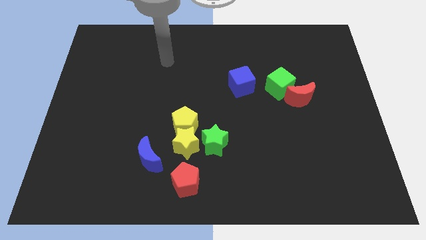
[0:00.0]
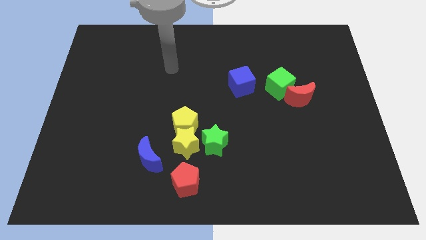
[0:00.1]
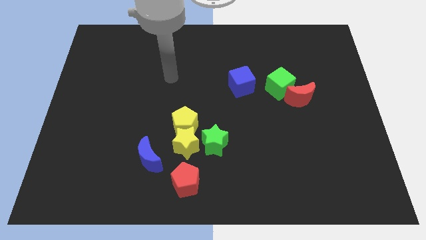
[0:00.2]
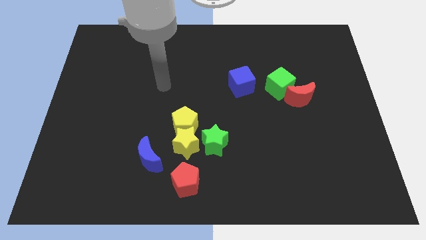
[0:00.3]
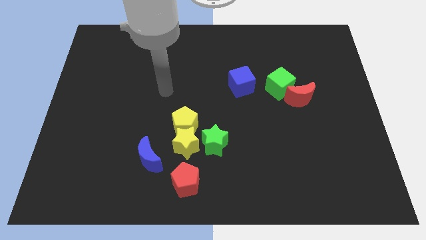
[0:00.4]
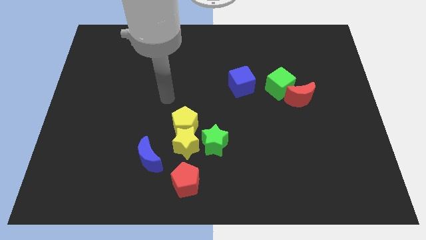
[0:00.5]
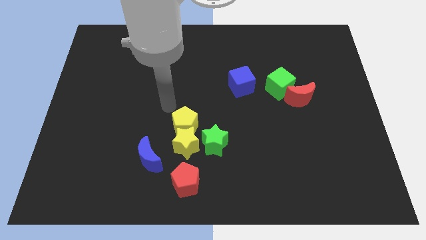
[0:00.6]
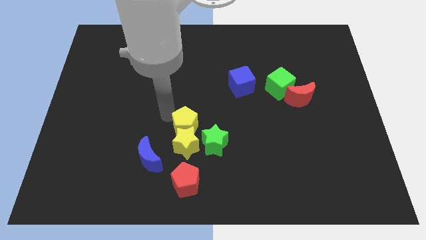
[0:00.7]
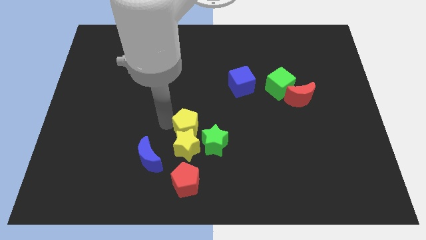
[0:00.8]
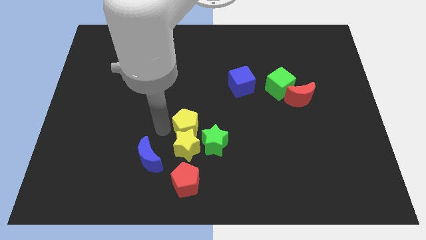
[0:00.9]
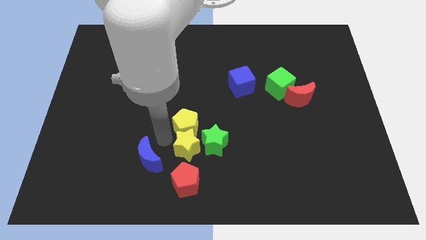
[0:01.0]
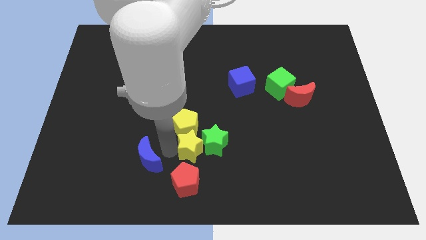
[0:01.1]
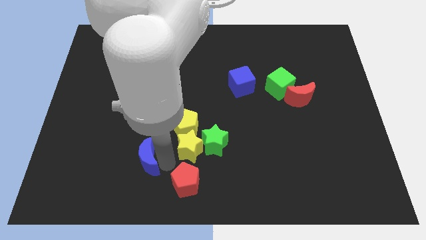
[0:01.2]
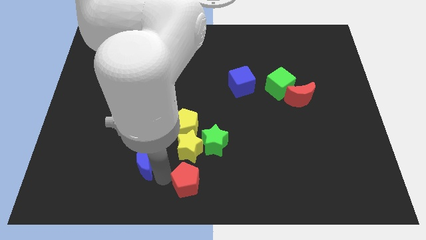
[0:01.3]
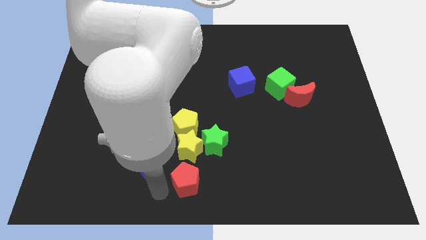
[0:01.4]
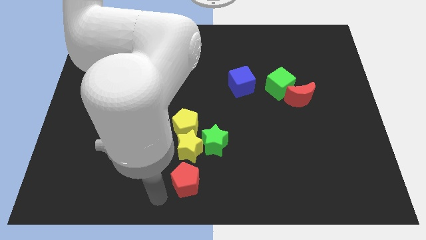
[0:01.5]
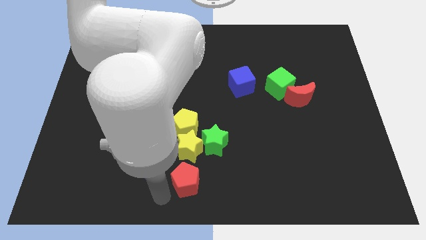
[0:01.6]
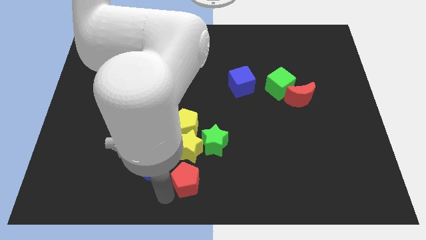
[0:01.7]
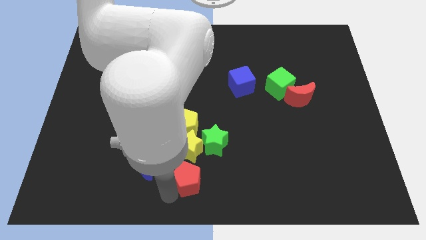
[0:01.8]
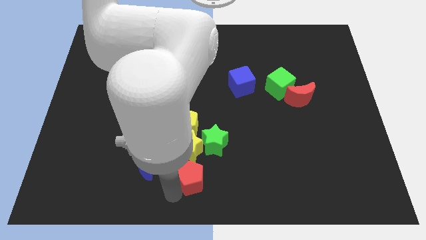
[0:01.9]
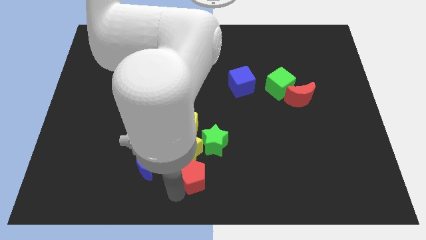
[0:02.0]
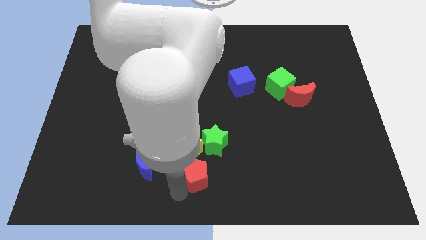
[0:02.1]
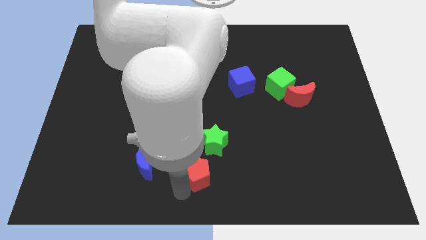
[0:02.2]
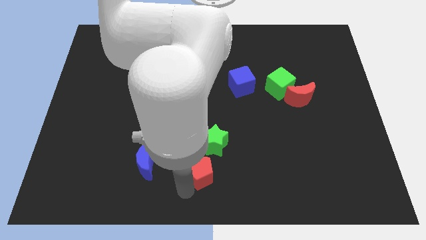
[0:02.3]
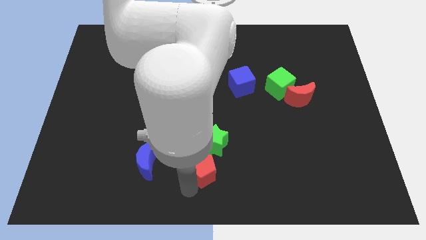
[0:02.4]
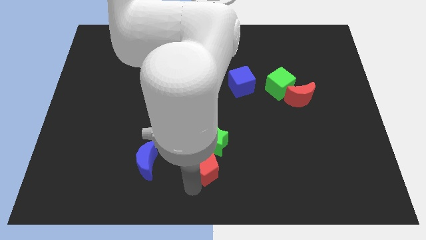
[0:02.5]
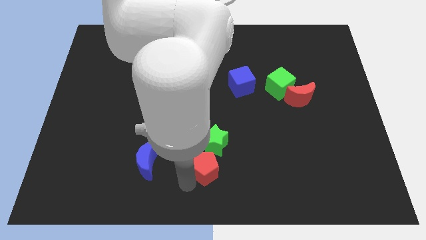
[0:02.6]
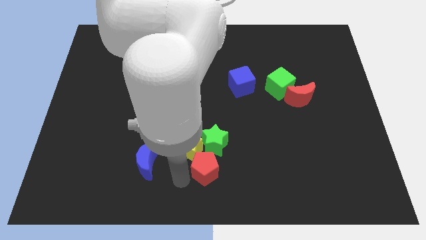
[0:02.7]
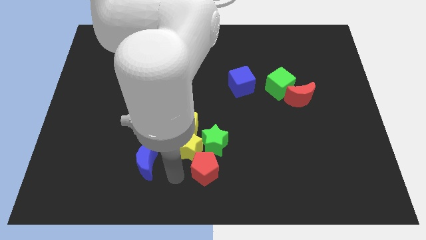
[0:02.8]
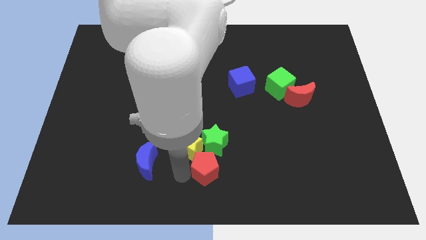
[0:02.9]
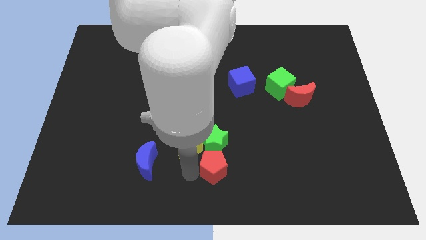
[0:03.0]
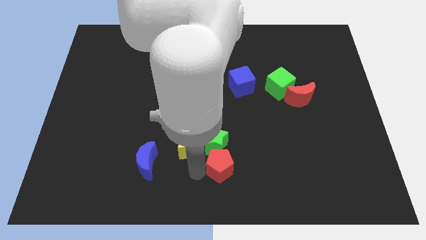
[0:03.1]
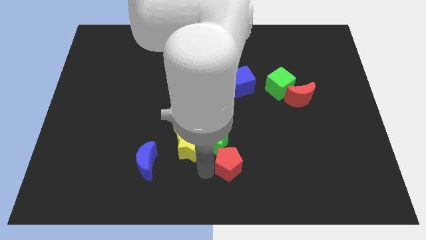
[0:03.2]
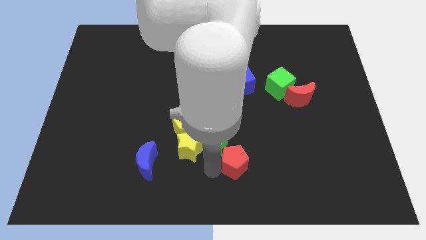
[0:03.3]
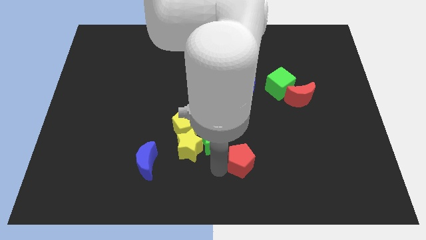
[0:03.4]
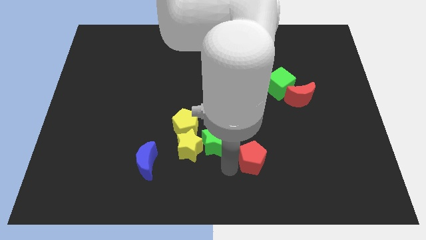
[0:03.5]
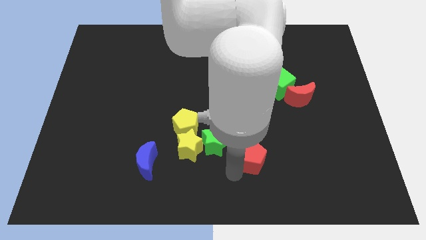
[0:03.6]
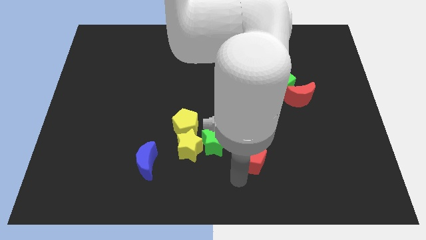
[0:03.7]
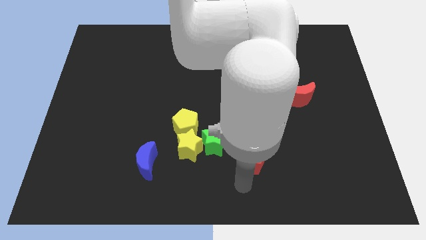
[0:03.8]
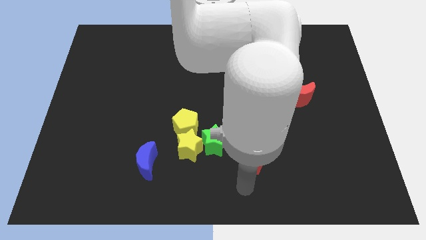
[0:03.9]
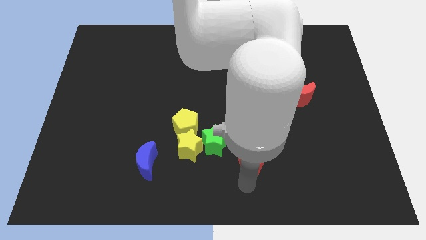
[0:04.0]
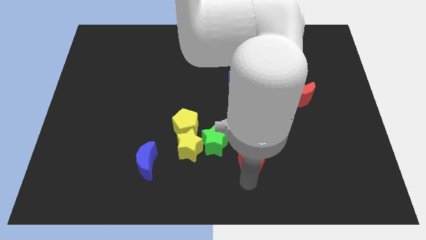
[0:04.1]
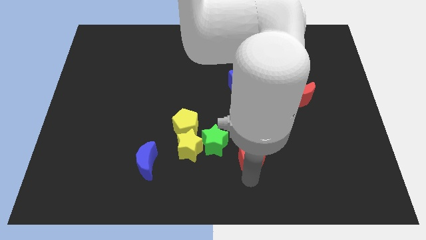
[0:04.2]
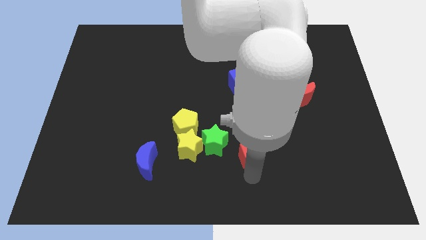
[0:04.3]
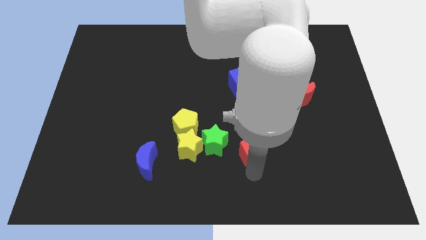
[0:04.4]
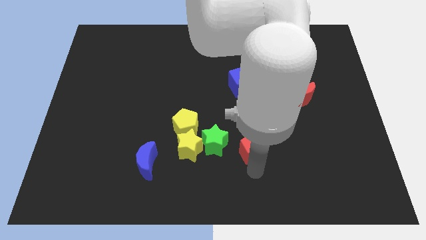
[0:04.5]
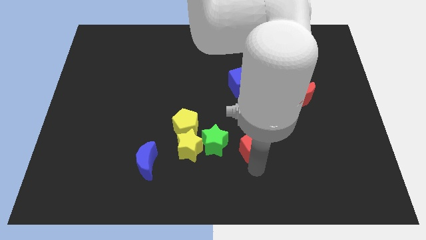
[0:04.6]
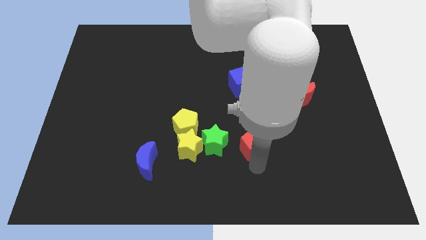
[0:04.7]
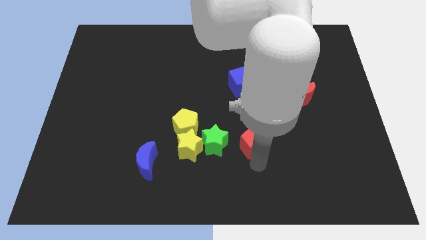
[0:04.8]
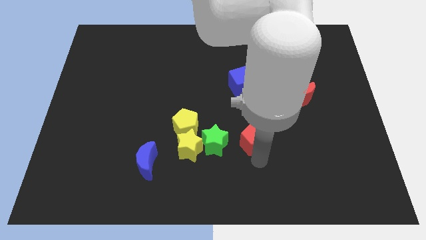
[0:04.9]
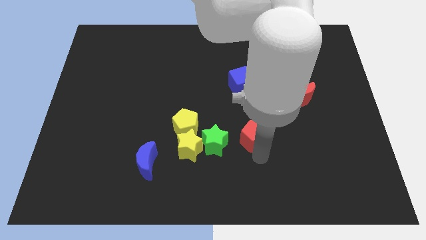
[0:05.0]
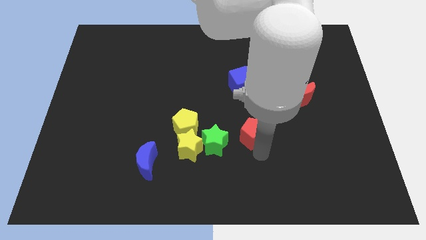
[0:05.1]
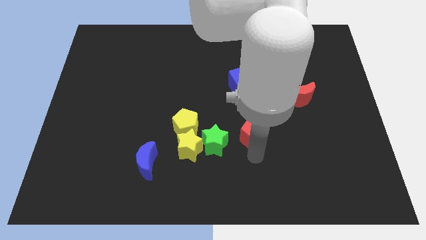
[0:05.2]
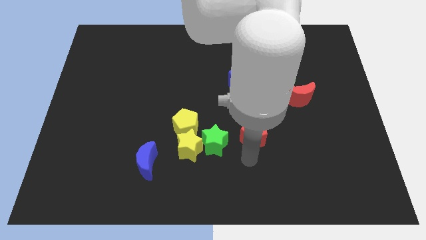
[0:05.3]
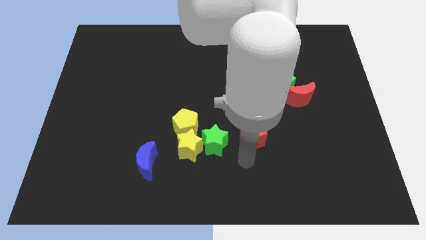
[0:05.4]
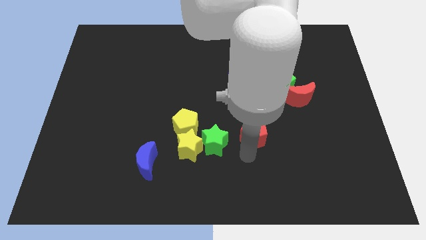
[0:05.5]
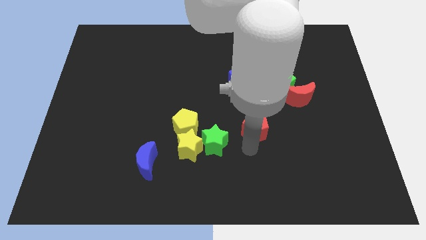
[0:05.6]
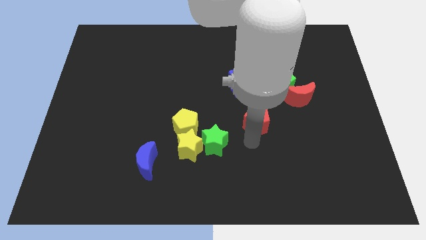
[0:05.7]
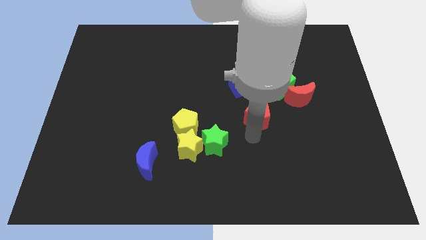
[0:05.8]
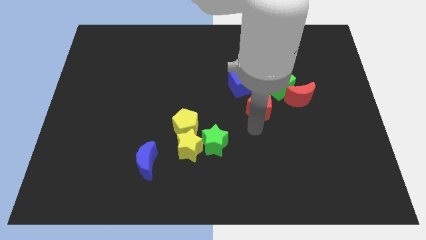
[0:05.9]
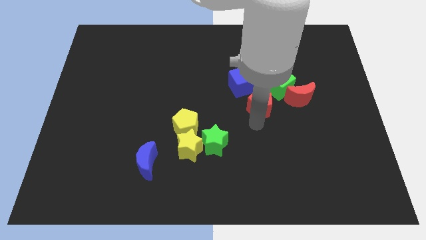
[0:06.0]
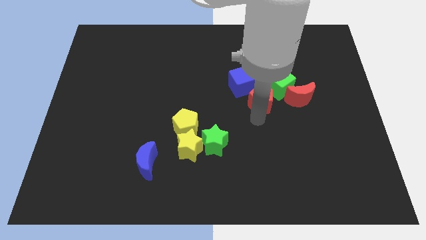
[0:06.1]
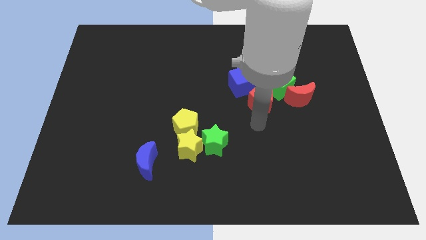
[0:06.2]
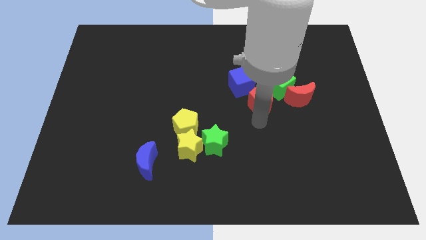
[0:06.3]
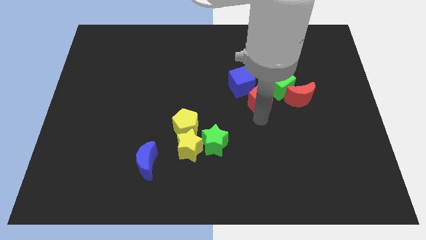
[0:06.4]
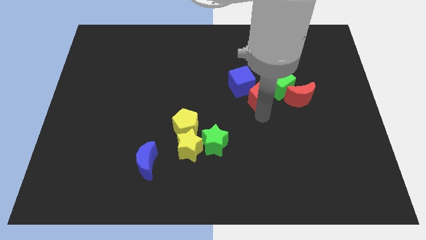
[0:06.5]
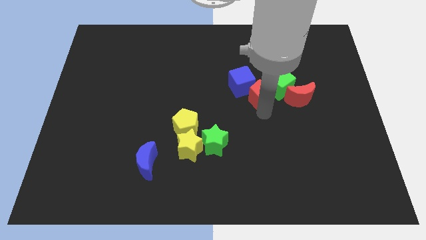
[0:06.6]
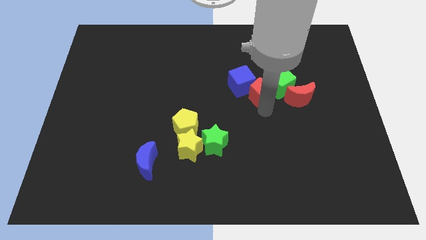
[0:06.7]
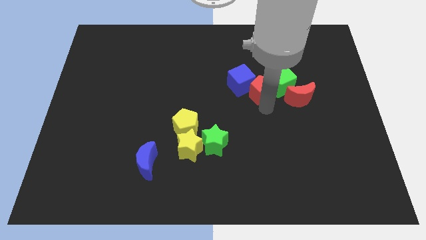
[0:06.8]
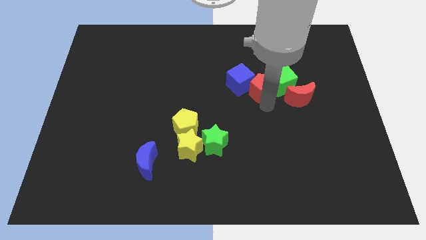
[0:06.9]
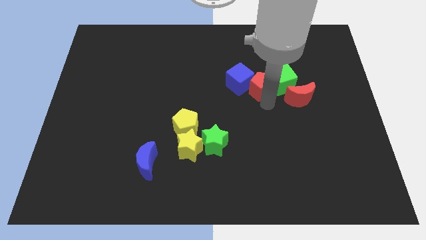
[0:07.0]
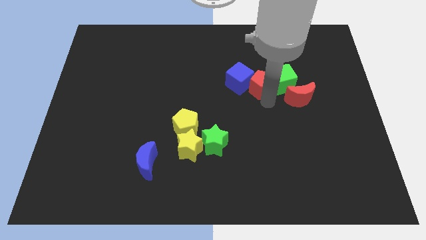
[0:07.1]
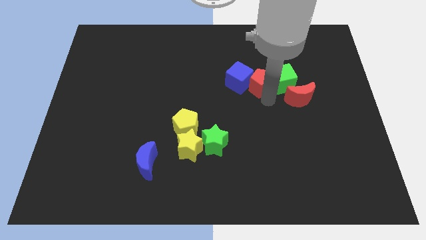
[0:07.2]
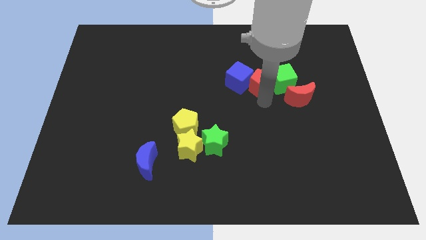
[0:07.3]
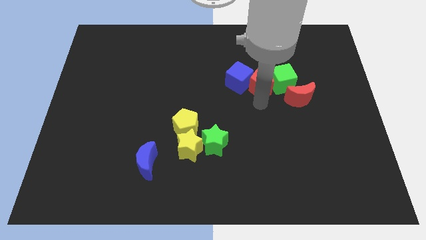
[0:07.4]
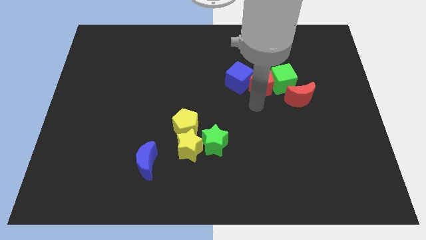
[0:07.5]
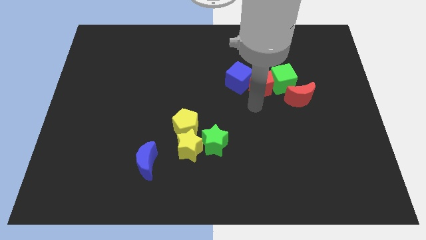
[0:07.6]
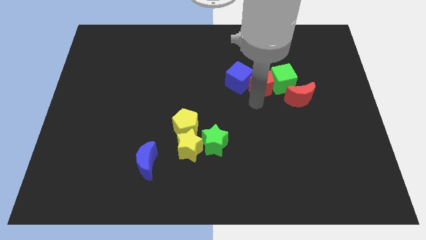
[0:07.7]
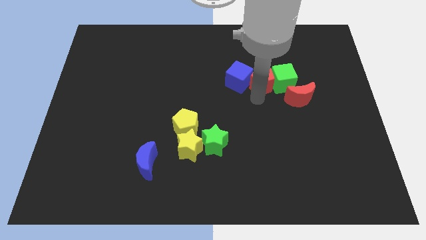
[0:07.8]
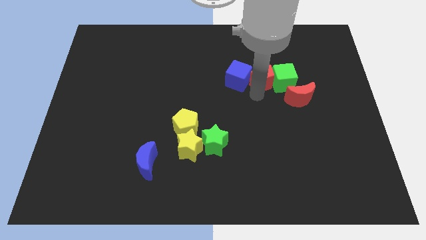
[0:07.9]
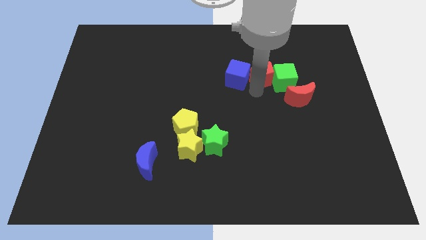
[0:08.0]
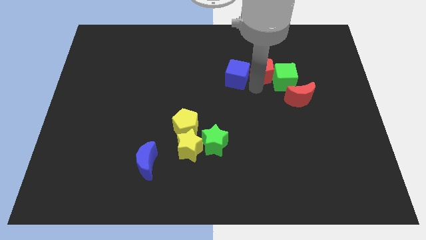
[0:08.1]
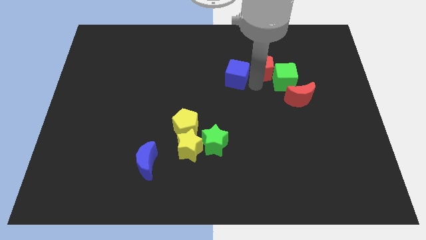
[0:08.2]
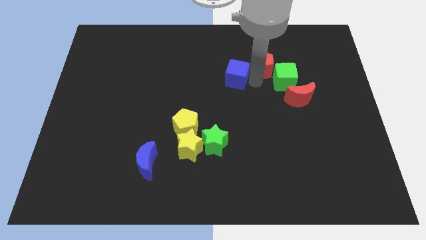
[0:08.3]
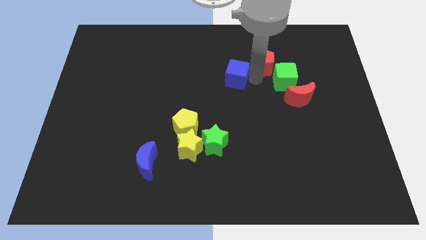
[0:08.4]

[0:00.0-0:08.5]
push the red pentagon to the top of the green cube
